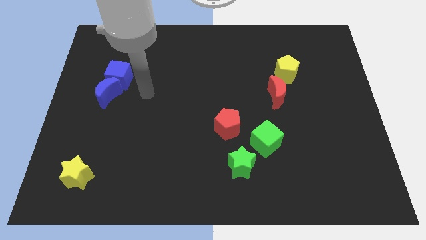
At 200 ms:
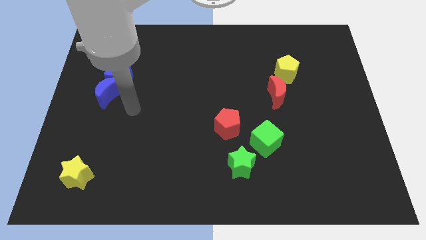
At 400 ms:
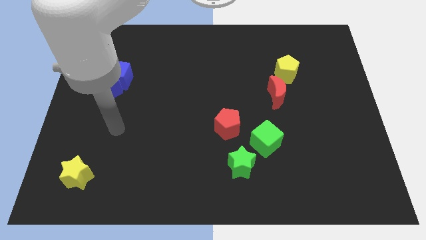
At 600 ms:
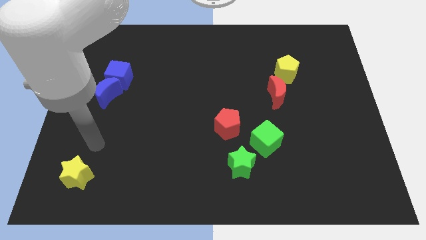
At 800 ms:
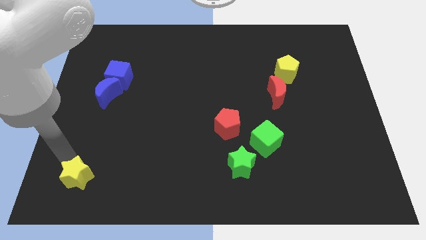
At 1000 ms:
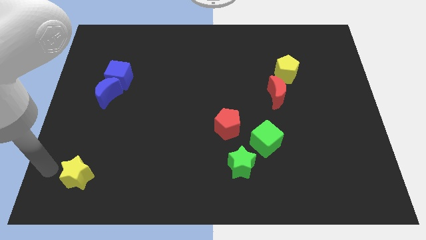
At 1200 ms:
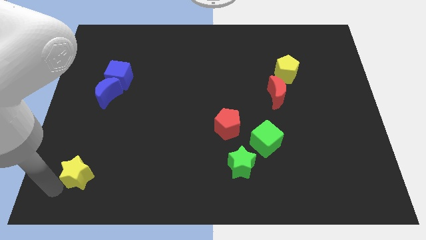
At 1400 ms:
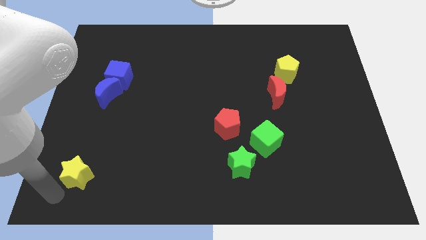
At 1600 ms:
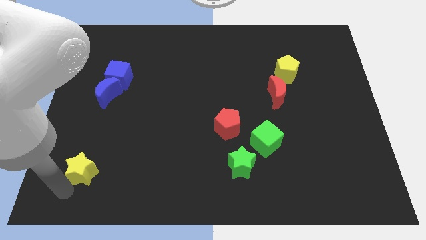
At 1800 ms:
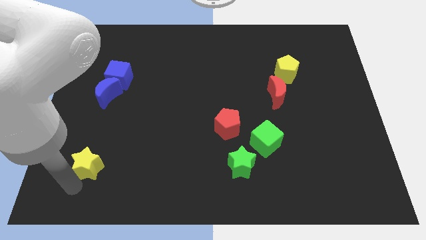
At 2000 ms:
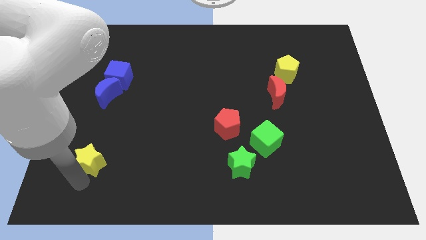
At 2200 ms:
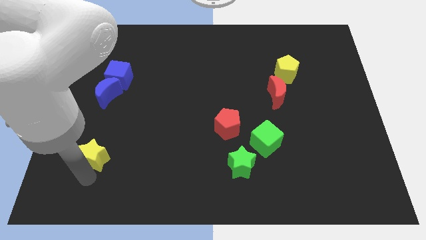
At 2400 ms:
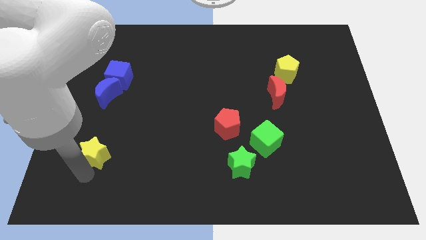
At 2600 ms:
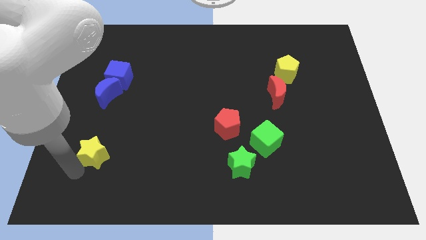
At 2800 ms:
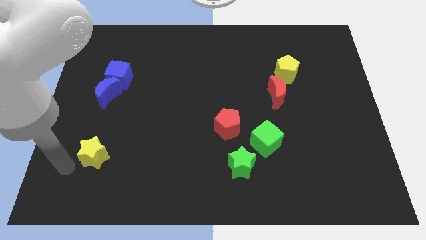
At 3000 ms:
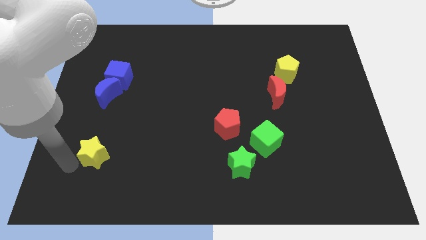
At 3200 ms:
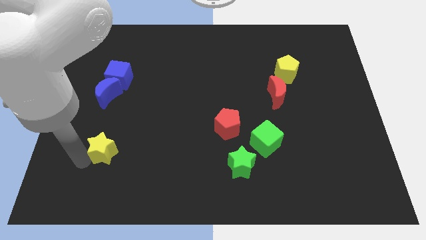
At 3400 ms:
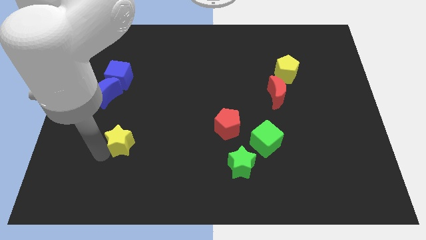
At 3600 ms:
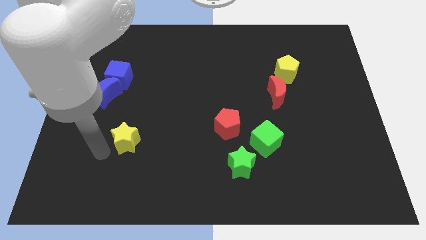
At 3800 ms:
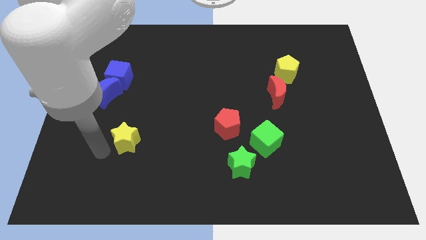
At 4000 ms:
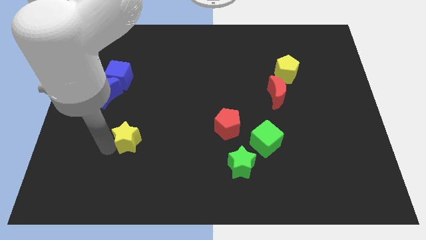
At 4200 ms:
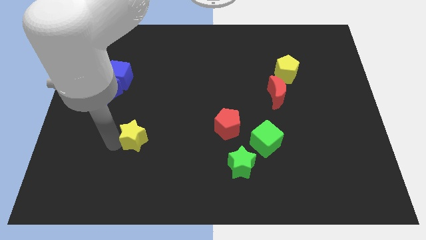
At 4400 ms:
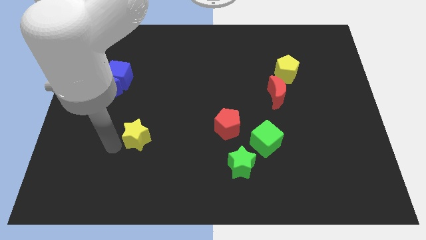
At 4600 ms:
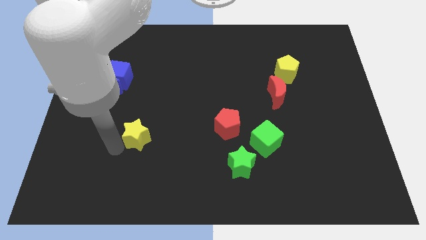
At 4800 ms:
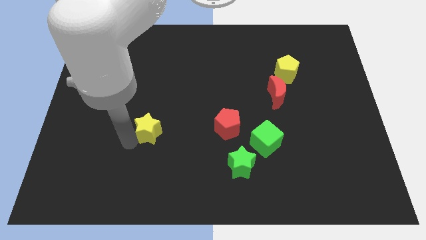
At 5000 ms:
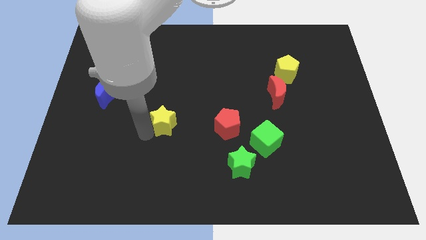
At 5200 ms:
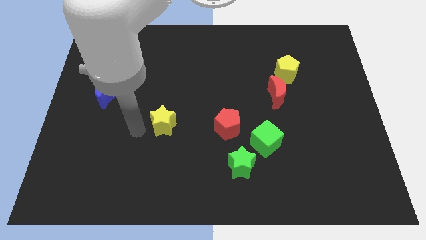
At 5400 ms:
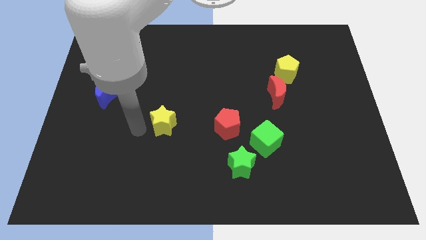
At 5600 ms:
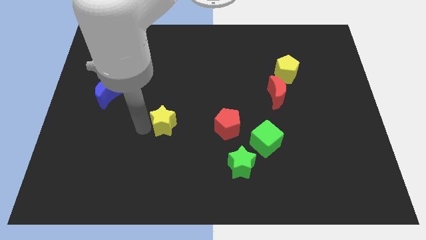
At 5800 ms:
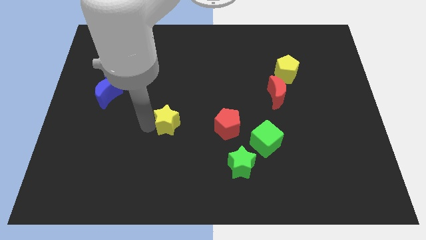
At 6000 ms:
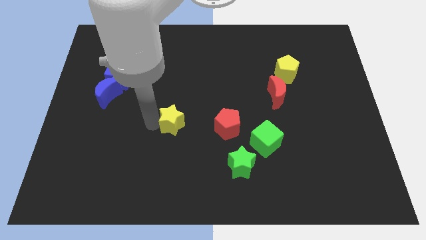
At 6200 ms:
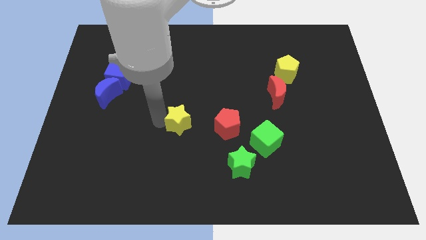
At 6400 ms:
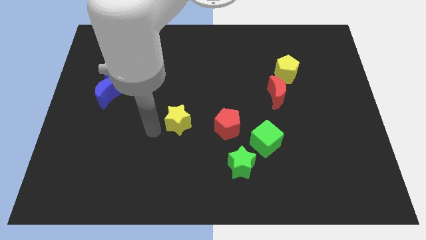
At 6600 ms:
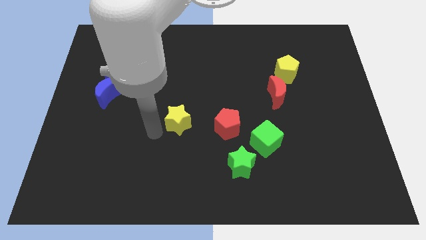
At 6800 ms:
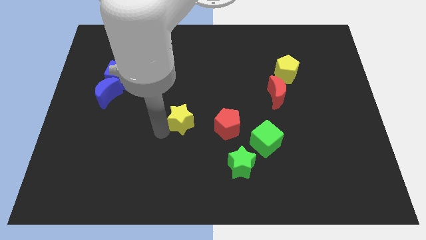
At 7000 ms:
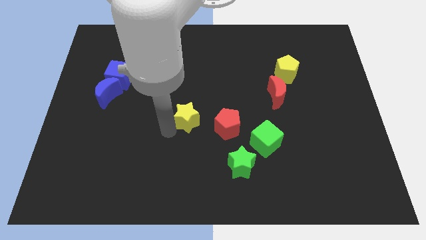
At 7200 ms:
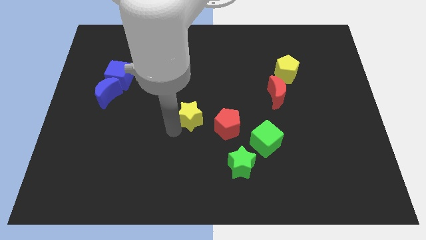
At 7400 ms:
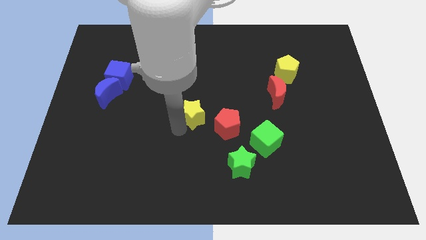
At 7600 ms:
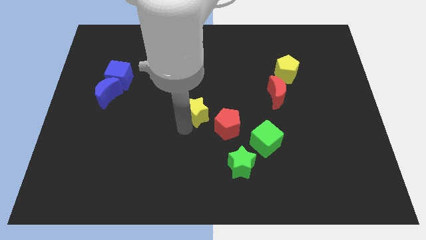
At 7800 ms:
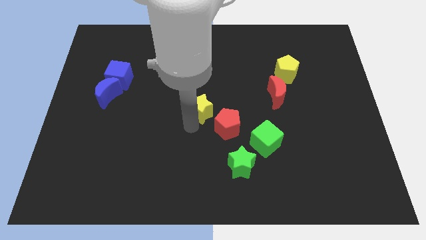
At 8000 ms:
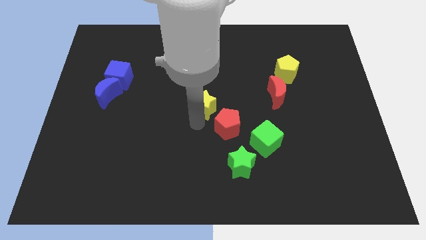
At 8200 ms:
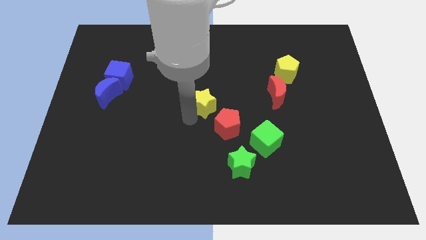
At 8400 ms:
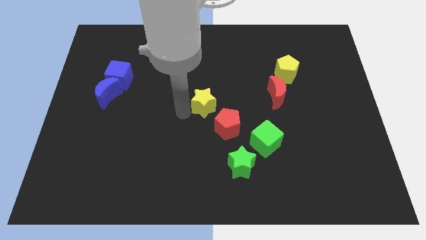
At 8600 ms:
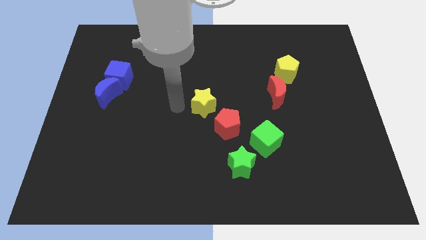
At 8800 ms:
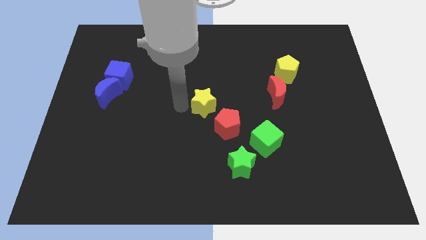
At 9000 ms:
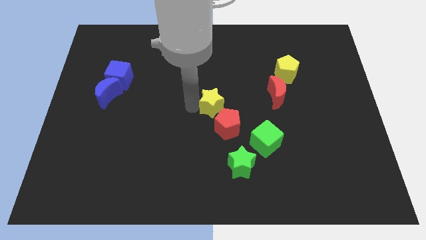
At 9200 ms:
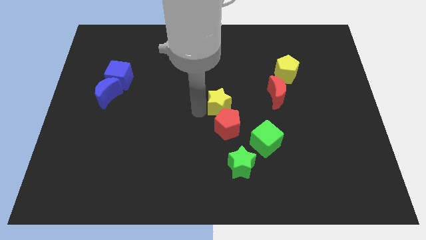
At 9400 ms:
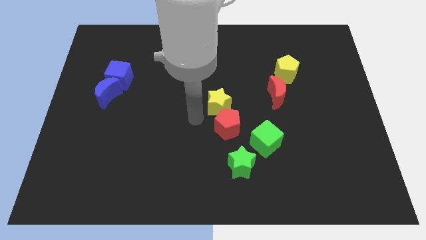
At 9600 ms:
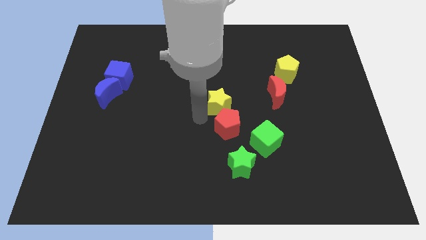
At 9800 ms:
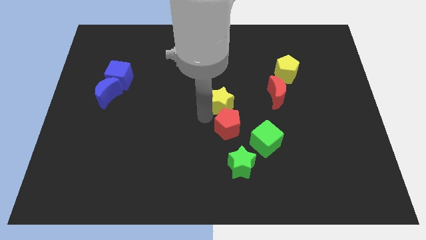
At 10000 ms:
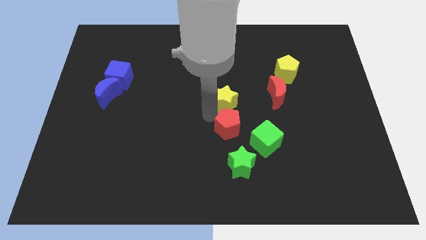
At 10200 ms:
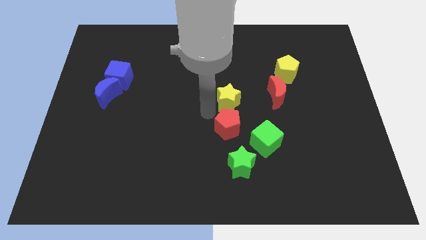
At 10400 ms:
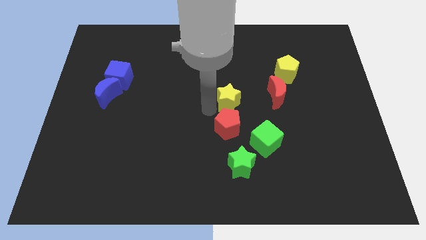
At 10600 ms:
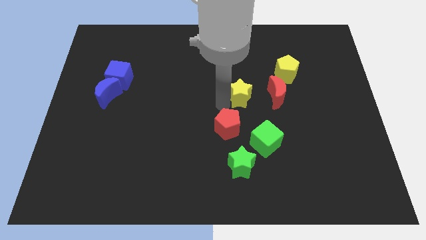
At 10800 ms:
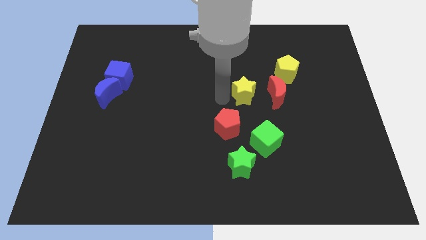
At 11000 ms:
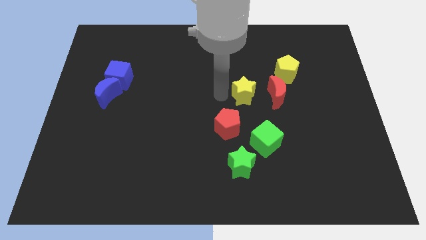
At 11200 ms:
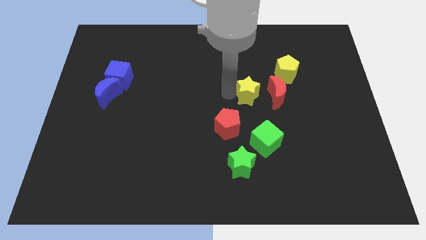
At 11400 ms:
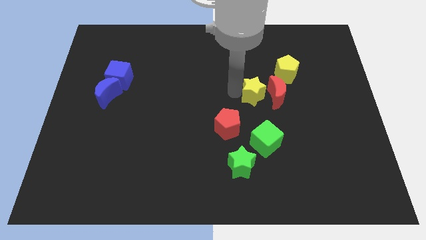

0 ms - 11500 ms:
put the yellow star to the red moon

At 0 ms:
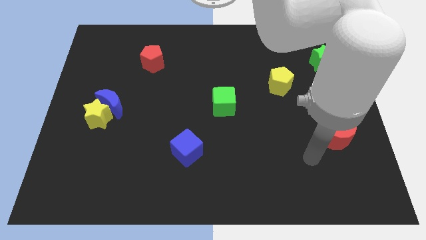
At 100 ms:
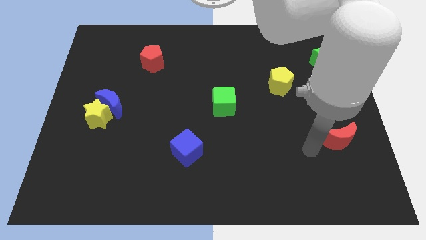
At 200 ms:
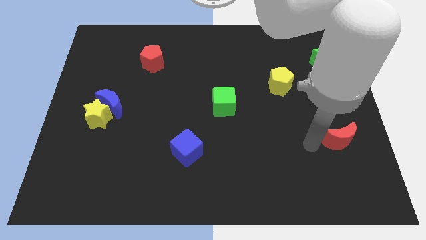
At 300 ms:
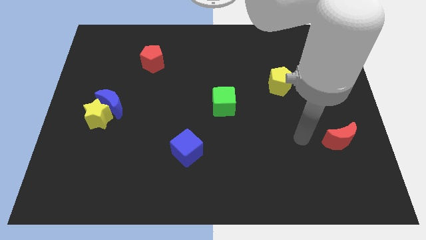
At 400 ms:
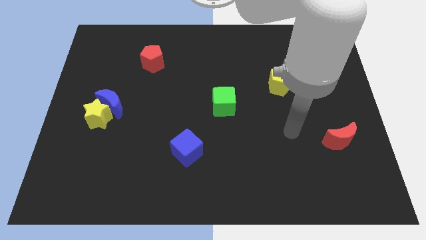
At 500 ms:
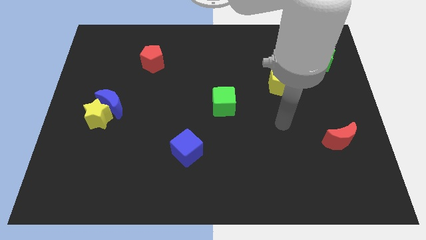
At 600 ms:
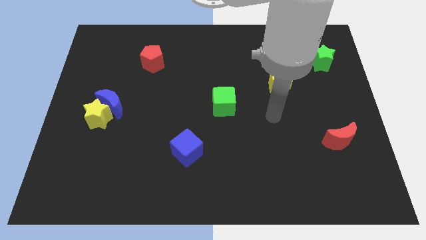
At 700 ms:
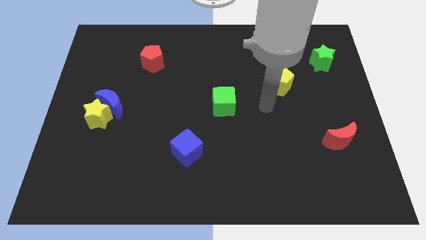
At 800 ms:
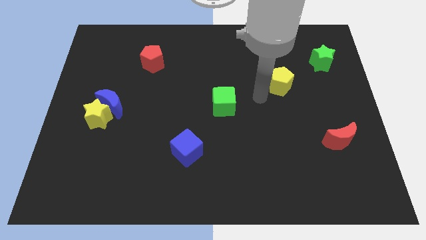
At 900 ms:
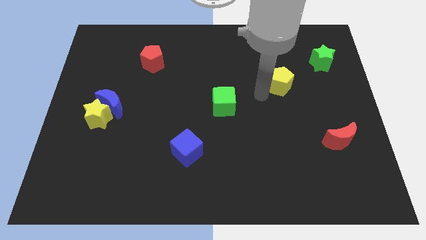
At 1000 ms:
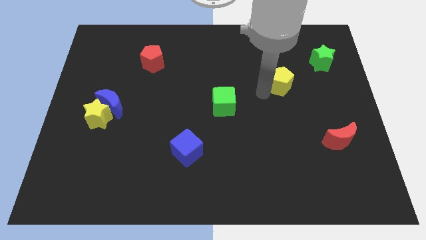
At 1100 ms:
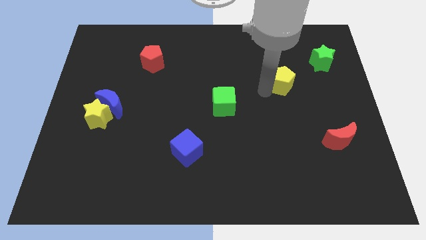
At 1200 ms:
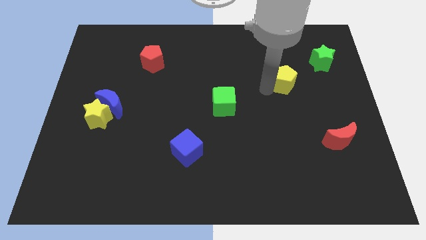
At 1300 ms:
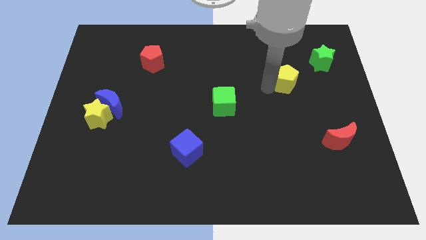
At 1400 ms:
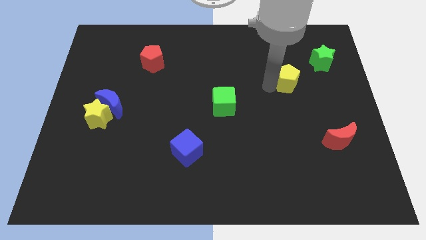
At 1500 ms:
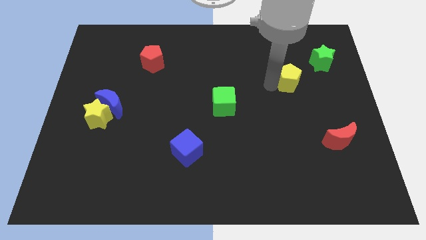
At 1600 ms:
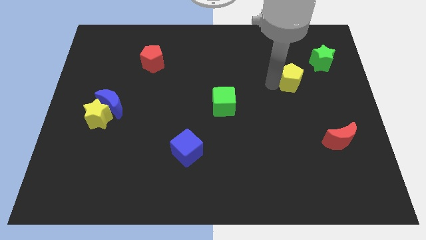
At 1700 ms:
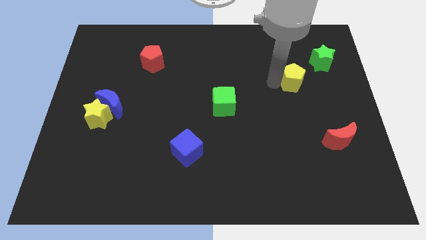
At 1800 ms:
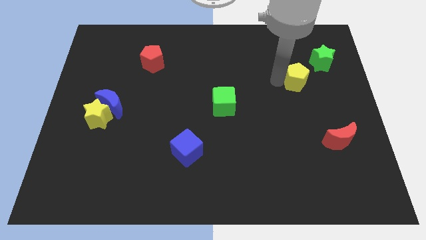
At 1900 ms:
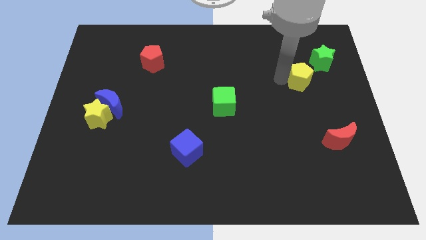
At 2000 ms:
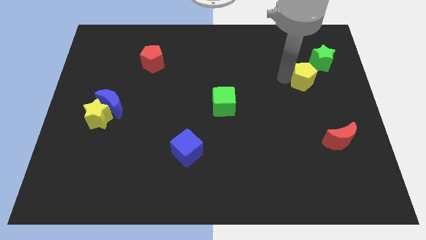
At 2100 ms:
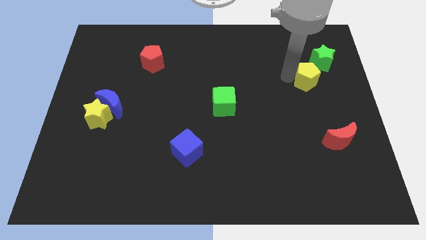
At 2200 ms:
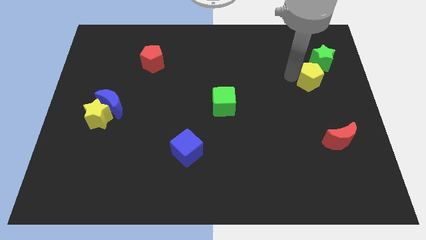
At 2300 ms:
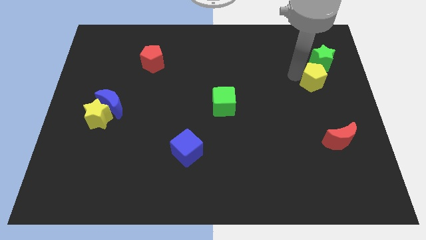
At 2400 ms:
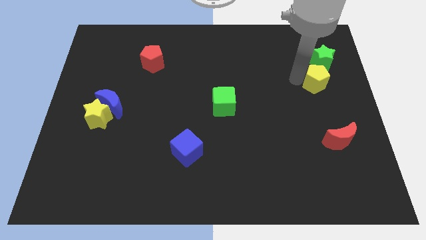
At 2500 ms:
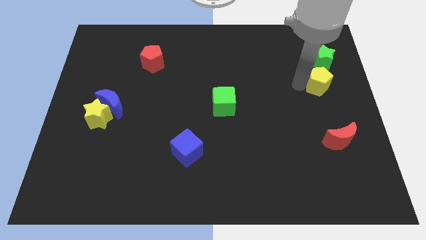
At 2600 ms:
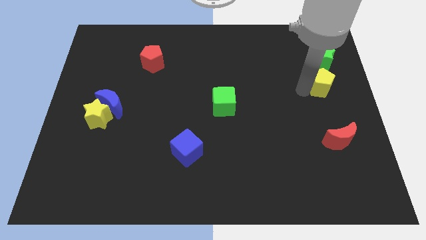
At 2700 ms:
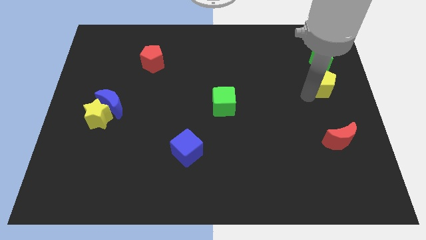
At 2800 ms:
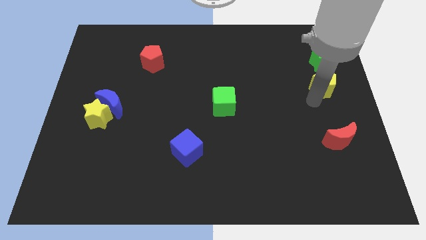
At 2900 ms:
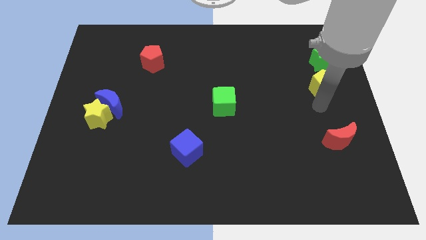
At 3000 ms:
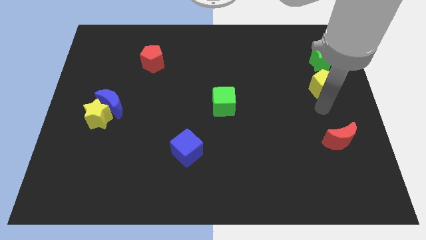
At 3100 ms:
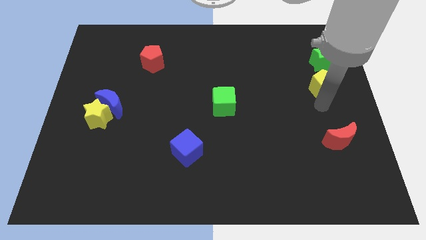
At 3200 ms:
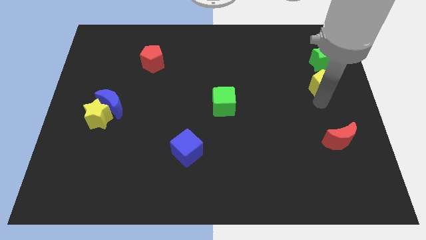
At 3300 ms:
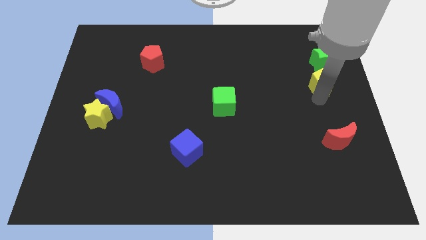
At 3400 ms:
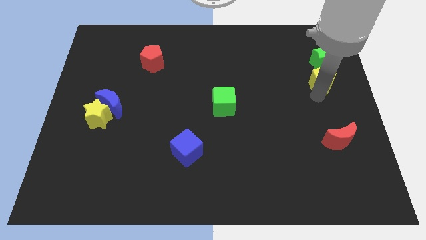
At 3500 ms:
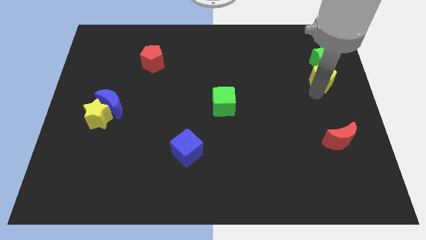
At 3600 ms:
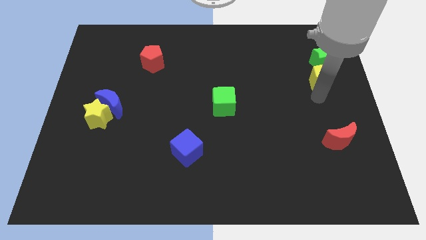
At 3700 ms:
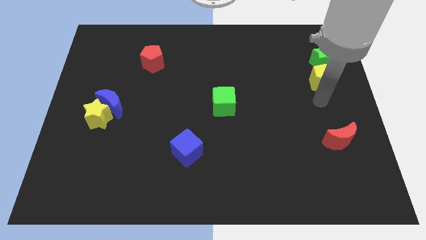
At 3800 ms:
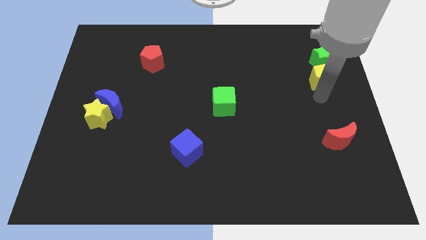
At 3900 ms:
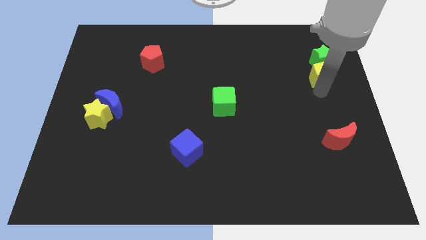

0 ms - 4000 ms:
slide the yellow pentagon towards the green star
